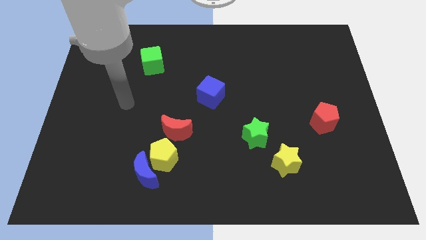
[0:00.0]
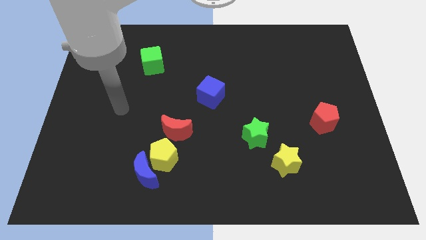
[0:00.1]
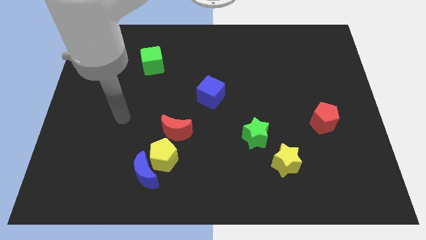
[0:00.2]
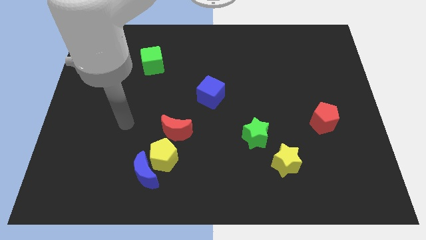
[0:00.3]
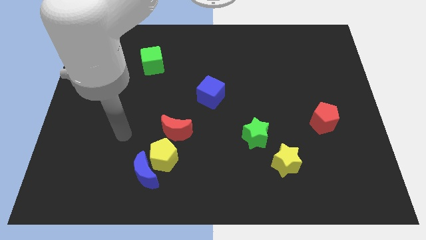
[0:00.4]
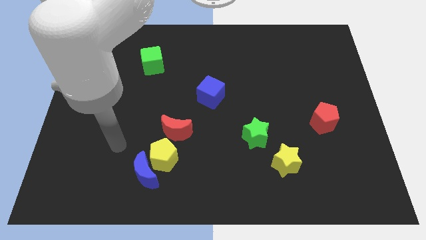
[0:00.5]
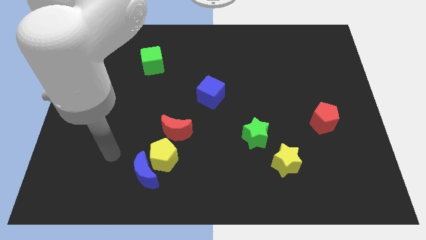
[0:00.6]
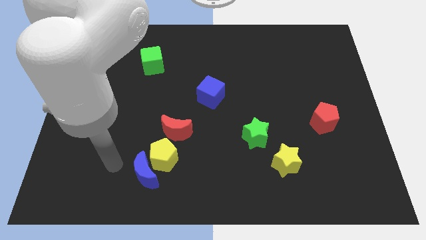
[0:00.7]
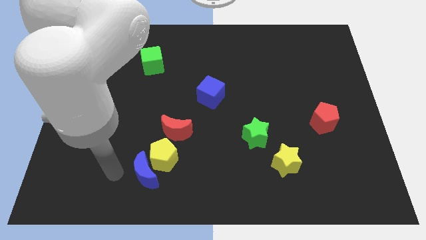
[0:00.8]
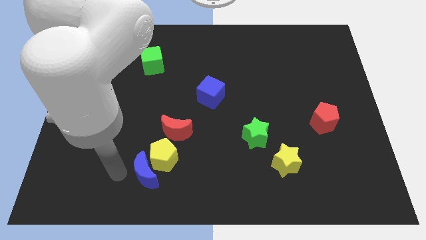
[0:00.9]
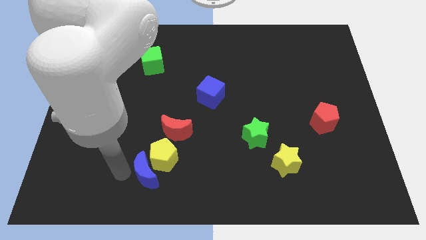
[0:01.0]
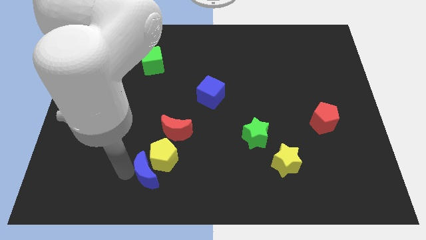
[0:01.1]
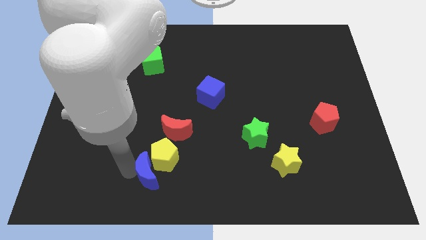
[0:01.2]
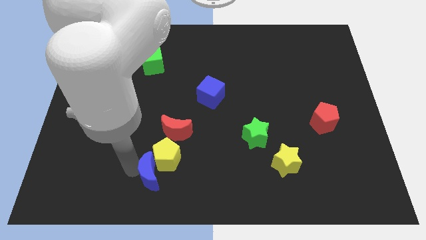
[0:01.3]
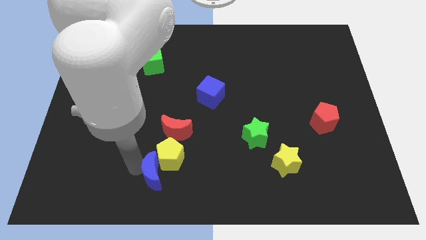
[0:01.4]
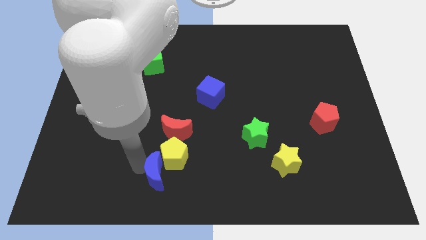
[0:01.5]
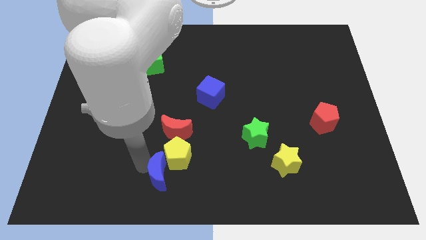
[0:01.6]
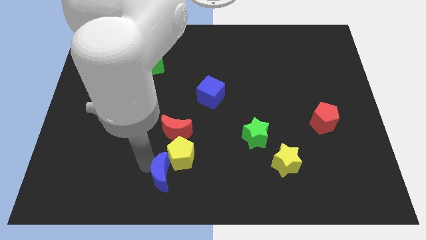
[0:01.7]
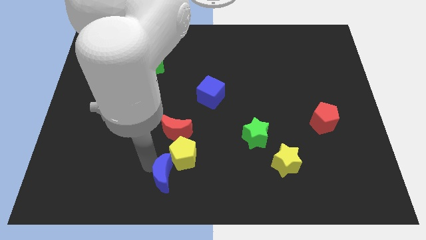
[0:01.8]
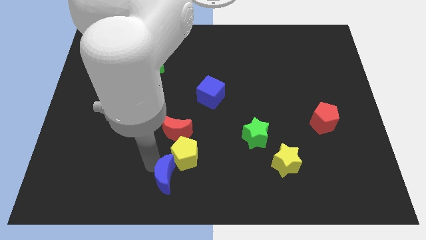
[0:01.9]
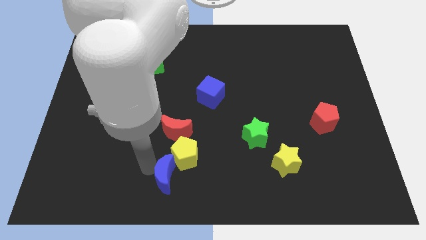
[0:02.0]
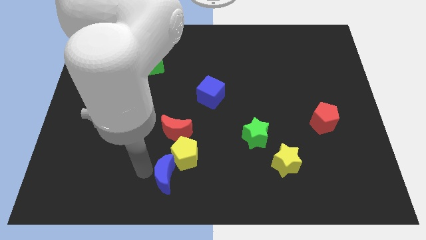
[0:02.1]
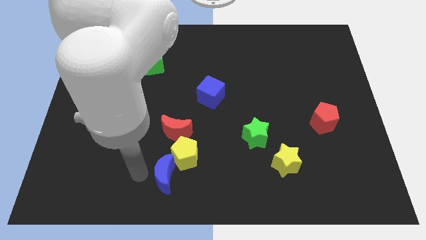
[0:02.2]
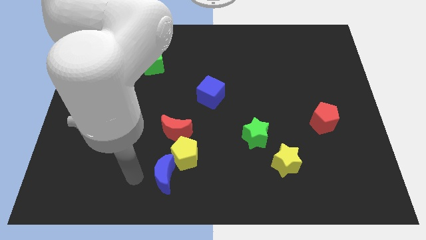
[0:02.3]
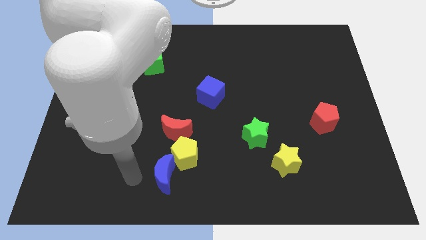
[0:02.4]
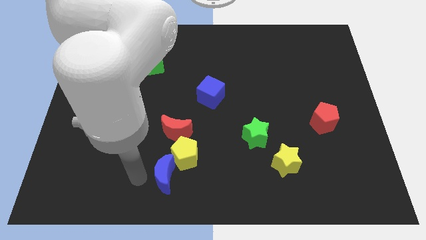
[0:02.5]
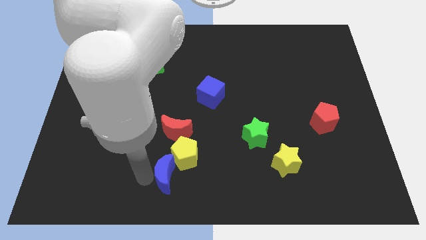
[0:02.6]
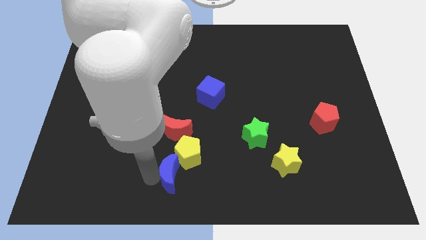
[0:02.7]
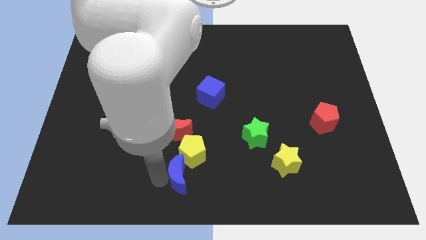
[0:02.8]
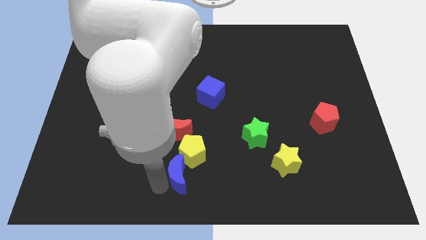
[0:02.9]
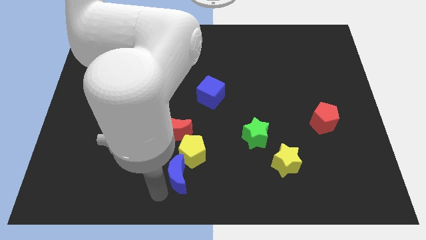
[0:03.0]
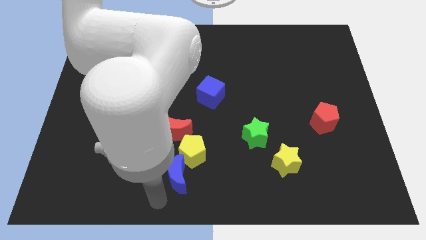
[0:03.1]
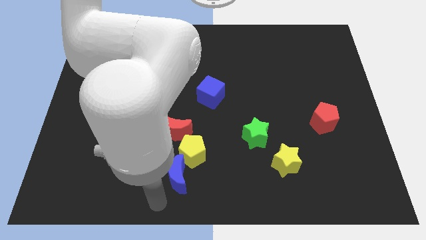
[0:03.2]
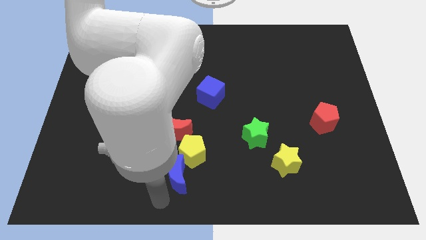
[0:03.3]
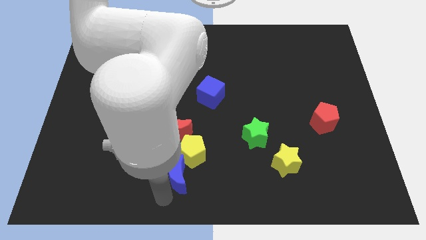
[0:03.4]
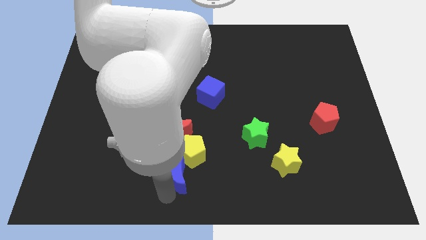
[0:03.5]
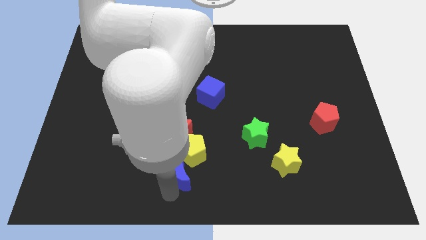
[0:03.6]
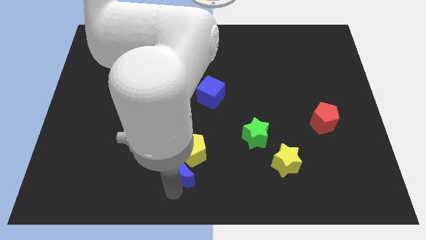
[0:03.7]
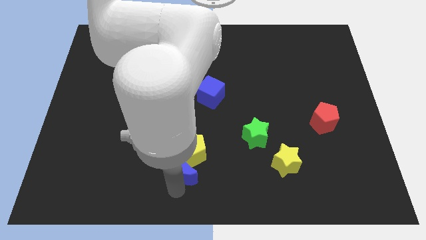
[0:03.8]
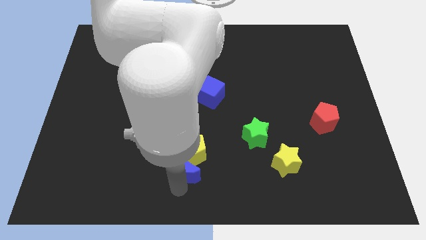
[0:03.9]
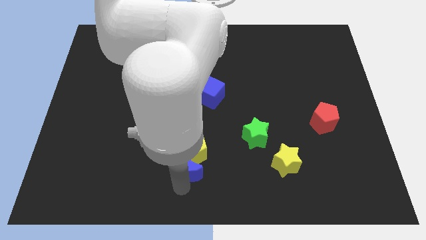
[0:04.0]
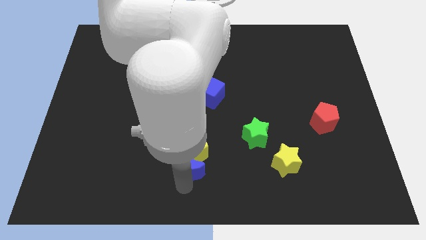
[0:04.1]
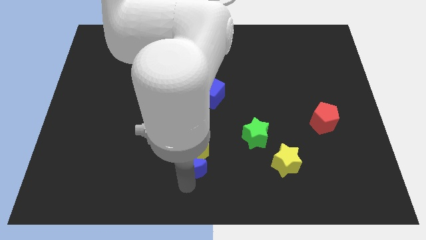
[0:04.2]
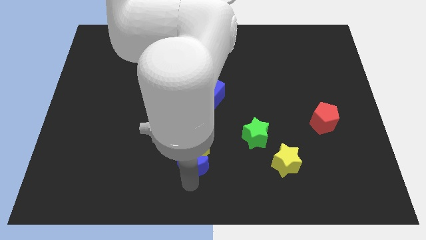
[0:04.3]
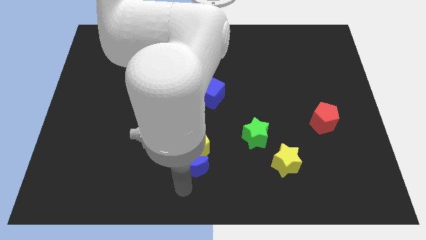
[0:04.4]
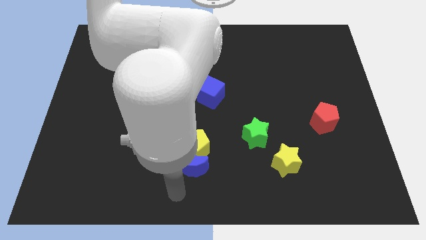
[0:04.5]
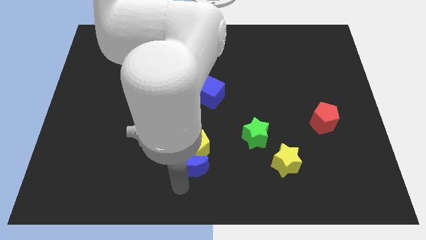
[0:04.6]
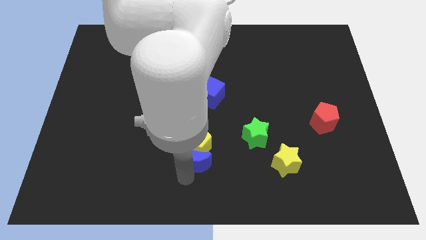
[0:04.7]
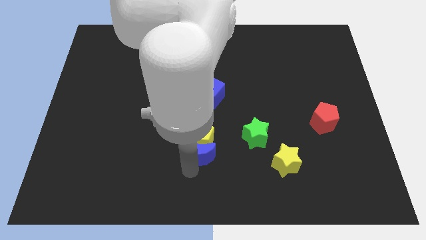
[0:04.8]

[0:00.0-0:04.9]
push the blue moon left of the green star

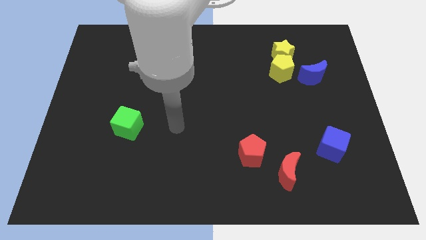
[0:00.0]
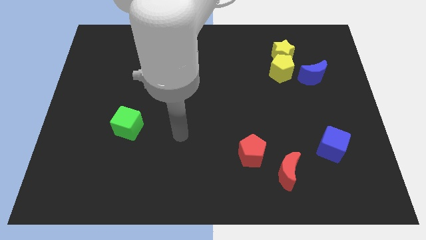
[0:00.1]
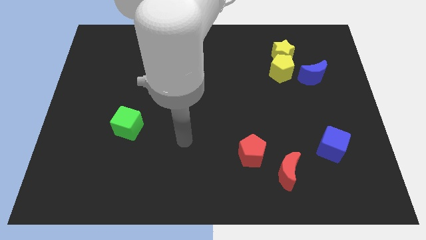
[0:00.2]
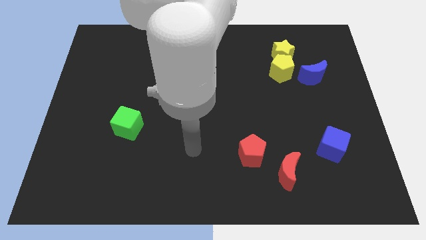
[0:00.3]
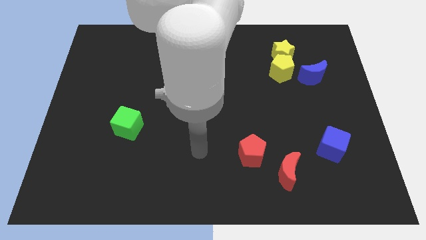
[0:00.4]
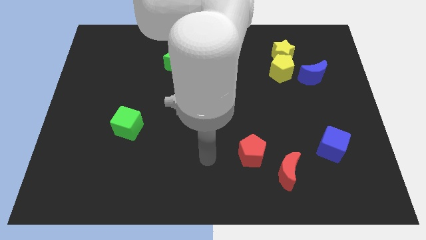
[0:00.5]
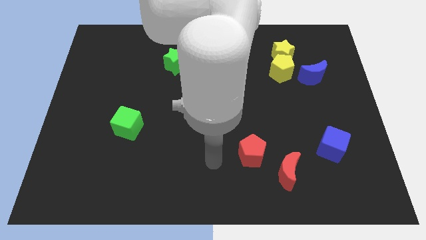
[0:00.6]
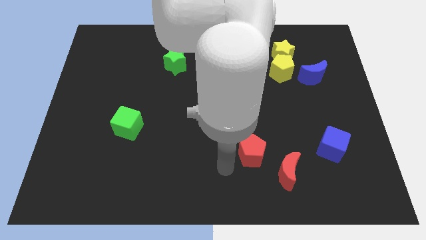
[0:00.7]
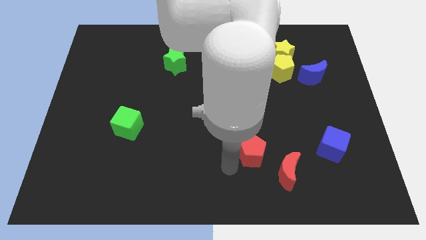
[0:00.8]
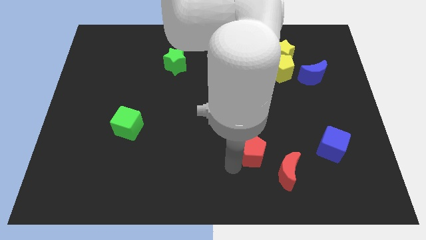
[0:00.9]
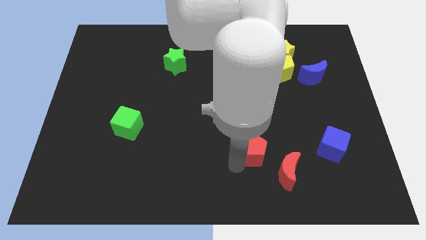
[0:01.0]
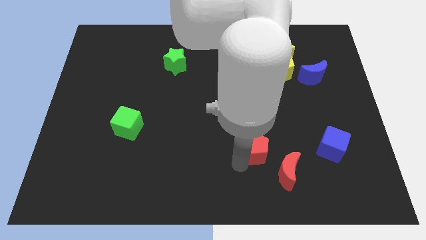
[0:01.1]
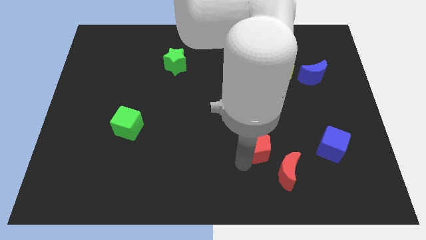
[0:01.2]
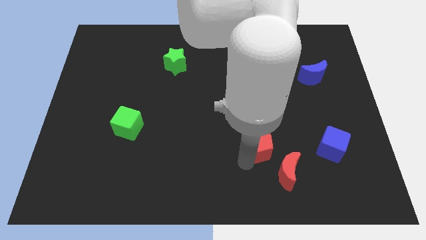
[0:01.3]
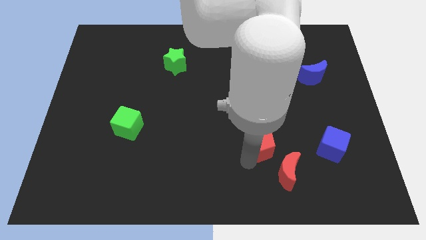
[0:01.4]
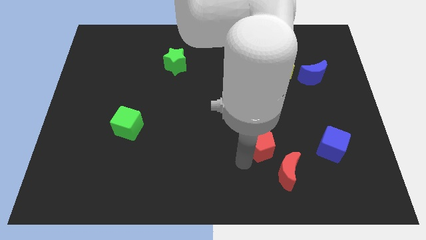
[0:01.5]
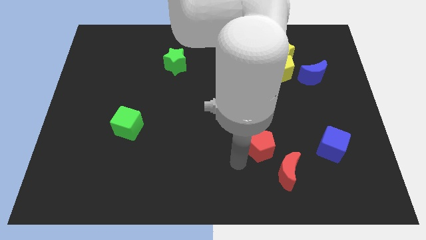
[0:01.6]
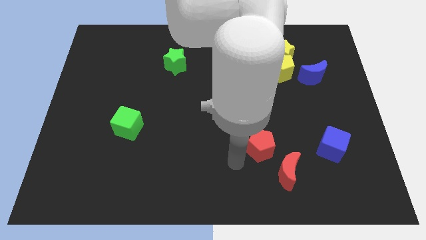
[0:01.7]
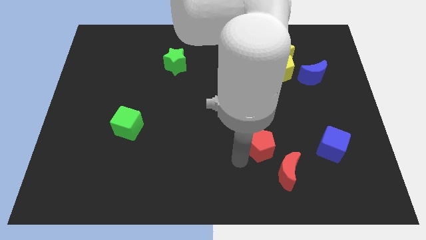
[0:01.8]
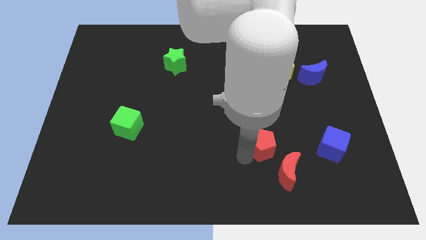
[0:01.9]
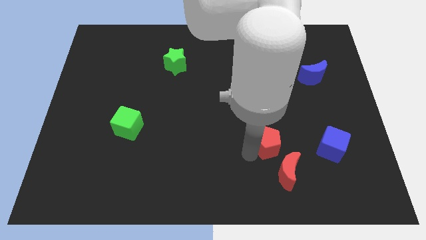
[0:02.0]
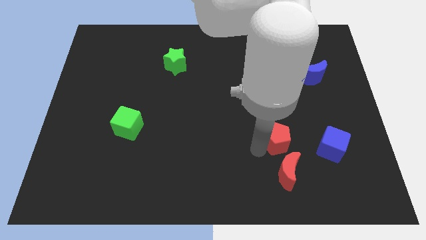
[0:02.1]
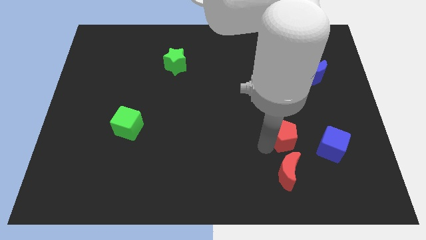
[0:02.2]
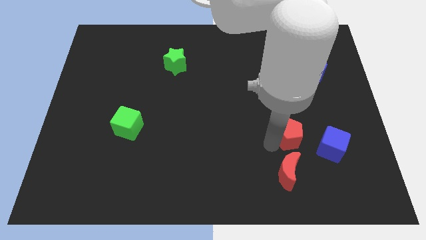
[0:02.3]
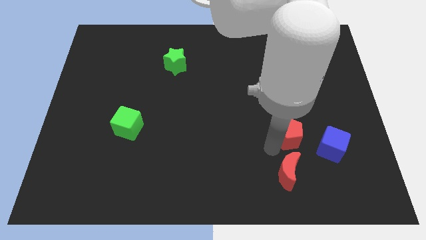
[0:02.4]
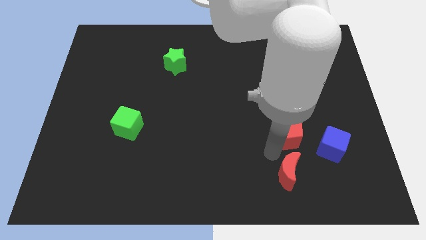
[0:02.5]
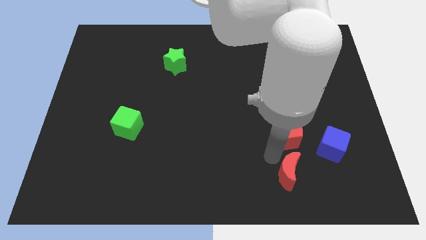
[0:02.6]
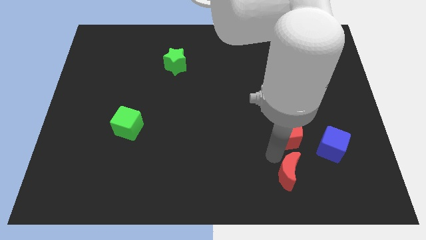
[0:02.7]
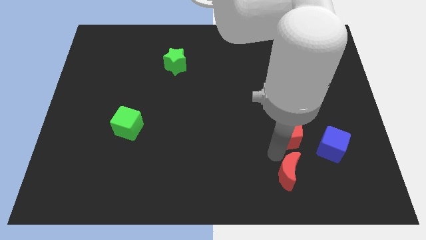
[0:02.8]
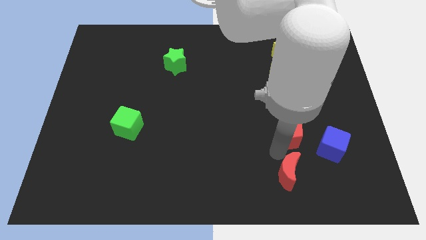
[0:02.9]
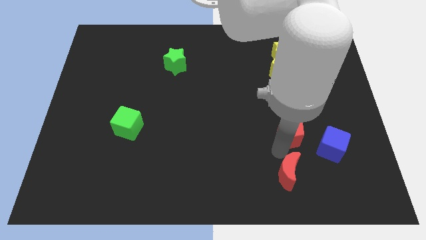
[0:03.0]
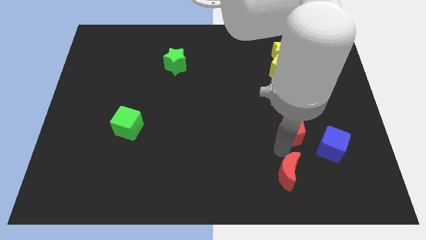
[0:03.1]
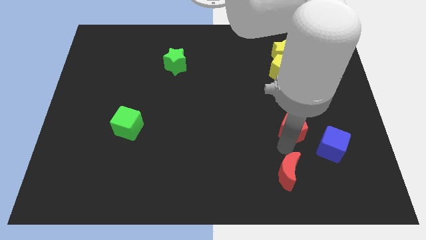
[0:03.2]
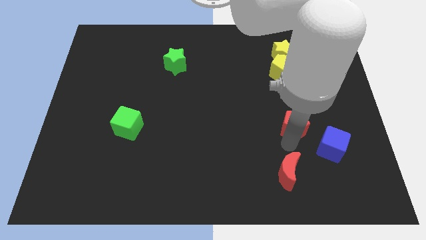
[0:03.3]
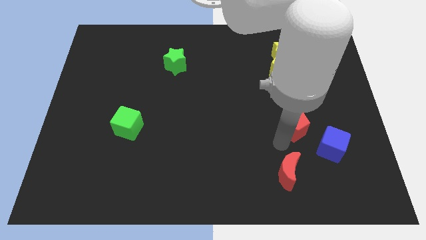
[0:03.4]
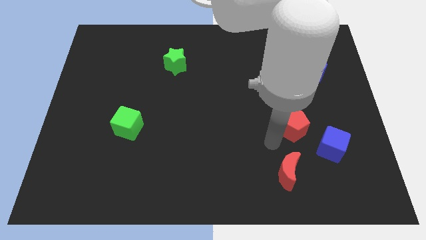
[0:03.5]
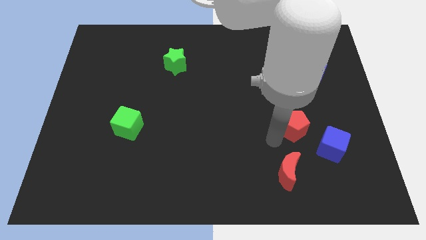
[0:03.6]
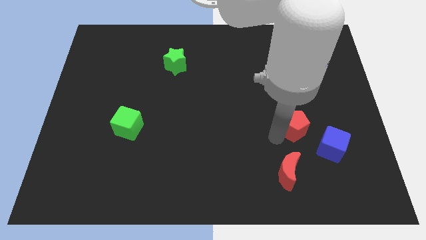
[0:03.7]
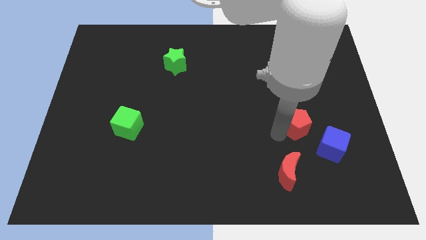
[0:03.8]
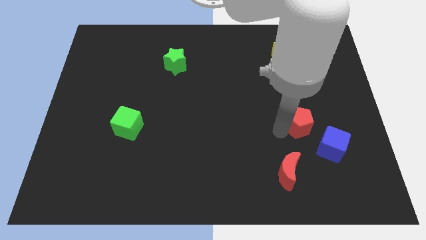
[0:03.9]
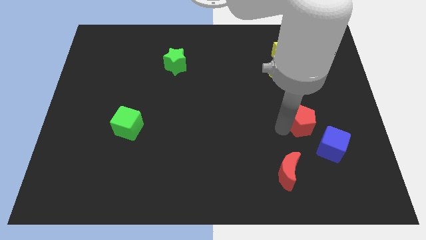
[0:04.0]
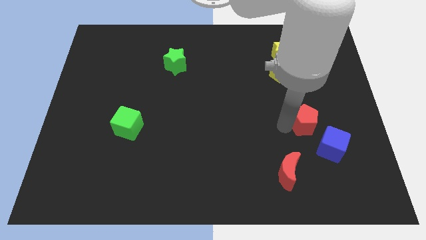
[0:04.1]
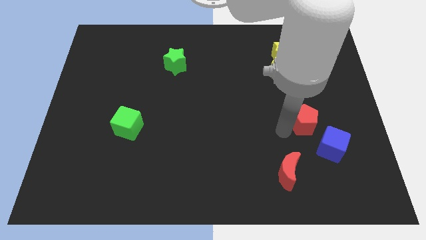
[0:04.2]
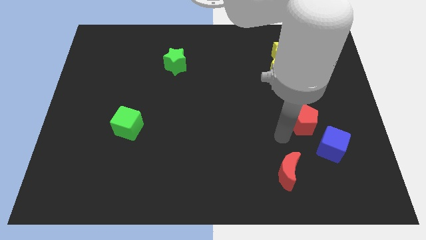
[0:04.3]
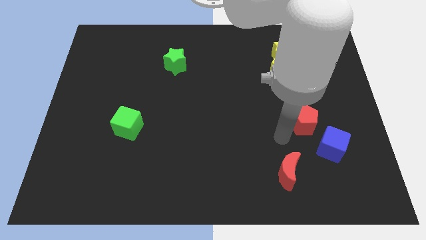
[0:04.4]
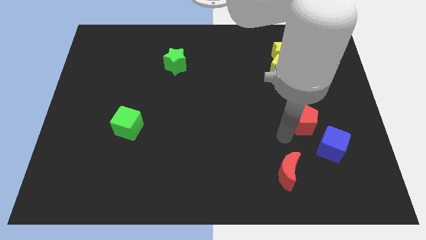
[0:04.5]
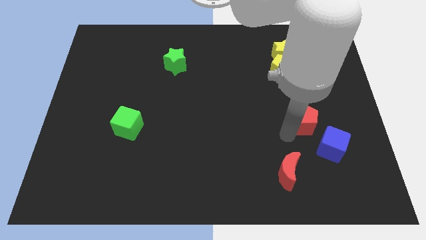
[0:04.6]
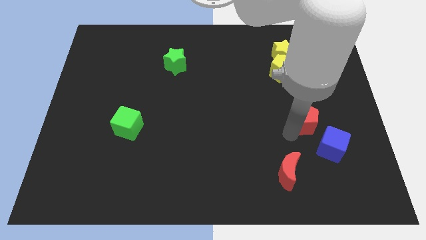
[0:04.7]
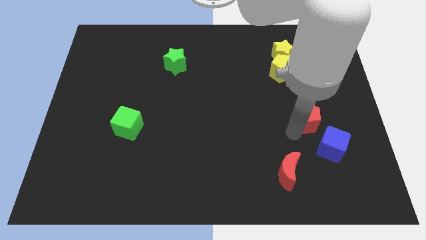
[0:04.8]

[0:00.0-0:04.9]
put the red pentagon to the top of the blue cube
